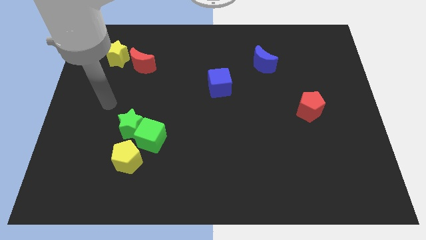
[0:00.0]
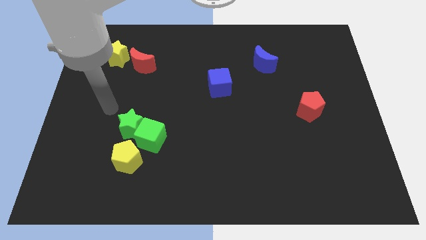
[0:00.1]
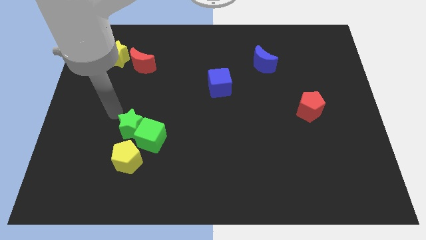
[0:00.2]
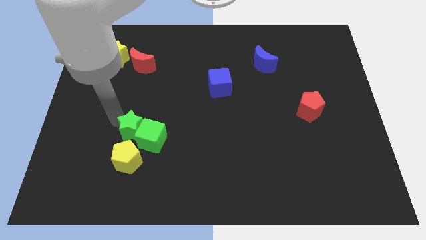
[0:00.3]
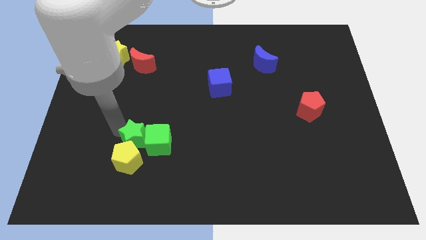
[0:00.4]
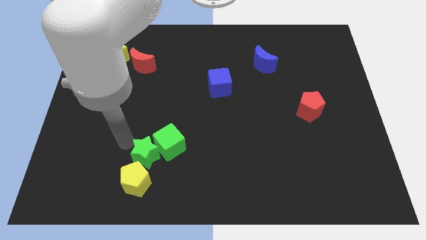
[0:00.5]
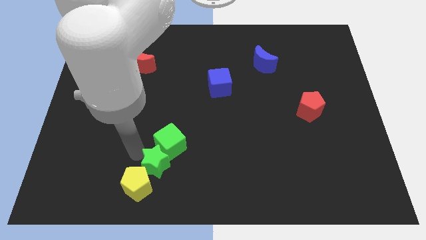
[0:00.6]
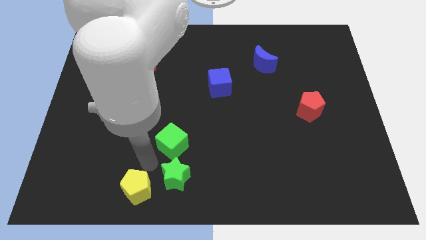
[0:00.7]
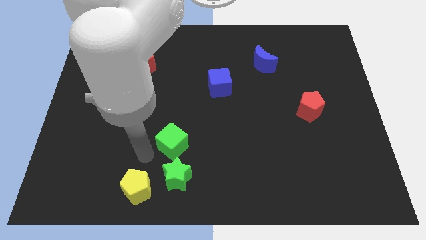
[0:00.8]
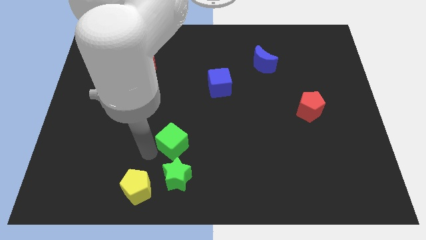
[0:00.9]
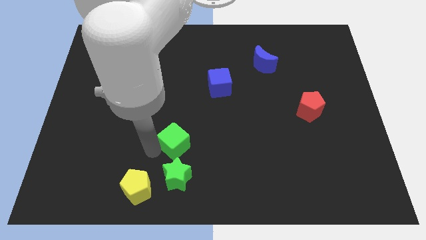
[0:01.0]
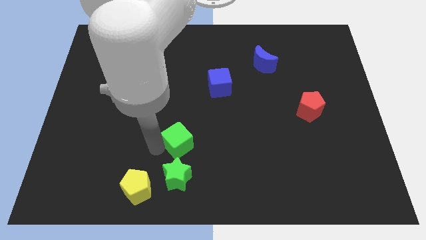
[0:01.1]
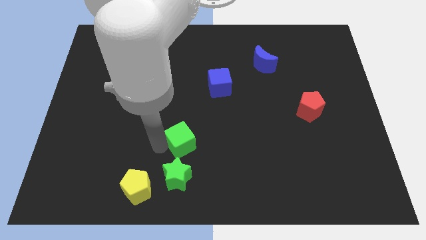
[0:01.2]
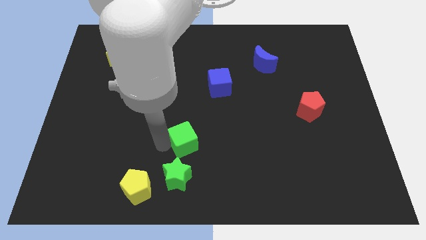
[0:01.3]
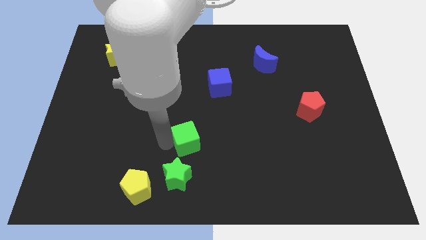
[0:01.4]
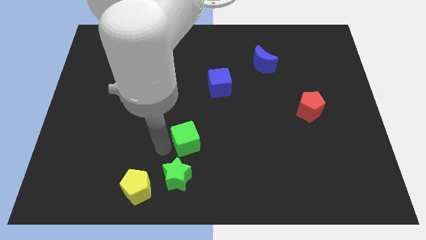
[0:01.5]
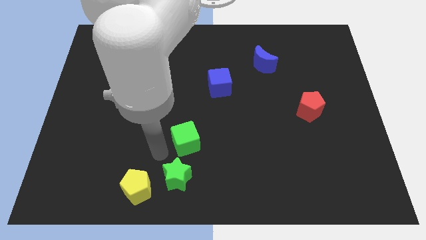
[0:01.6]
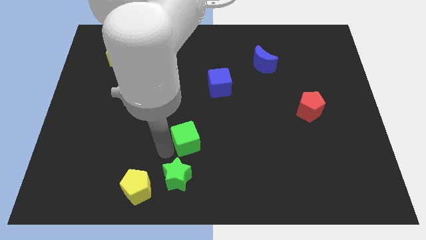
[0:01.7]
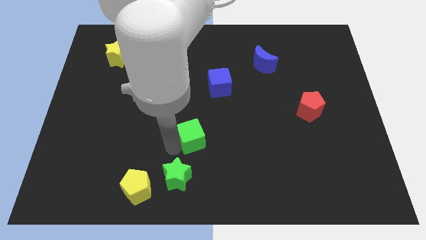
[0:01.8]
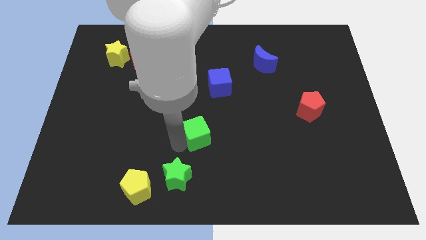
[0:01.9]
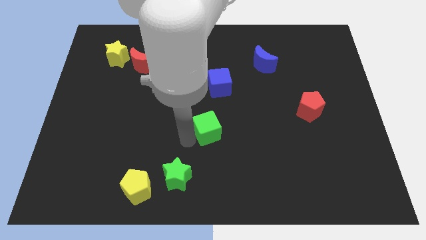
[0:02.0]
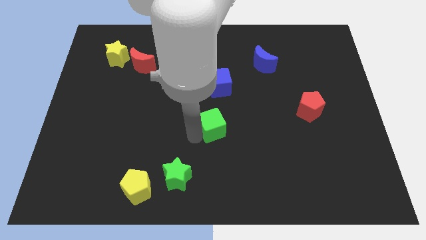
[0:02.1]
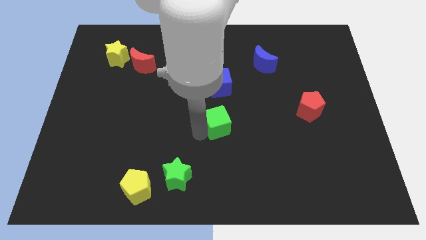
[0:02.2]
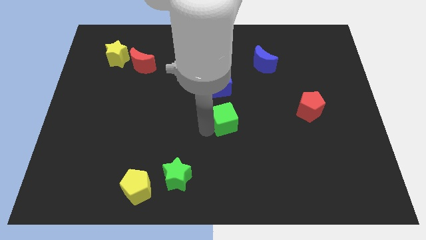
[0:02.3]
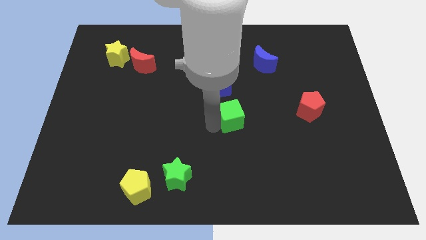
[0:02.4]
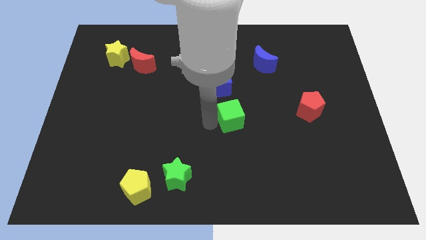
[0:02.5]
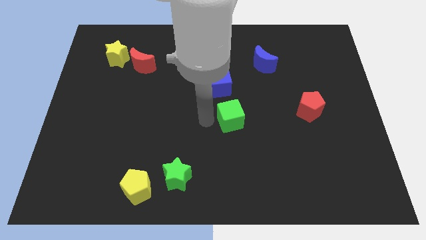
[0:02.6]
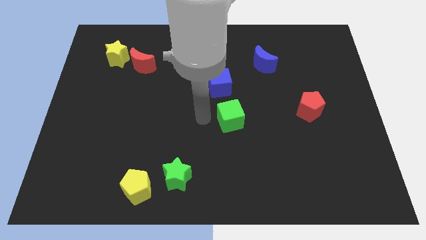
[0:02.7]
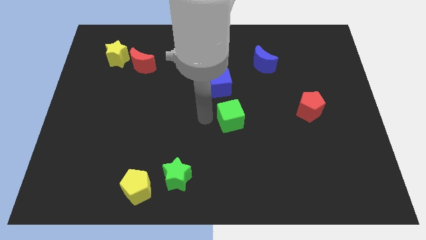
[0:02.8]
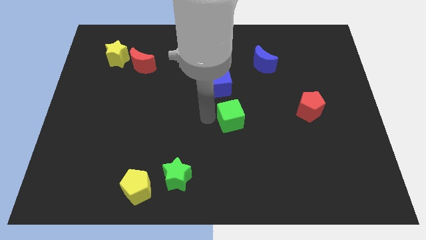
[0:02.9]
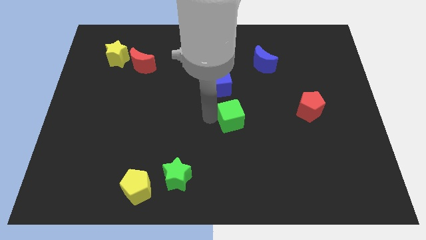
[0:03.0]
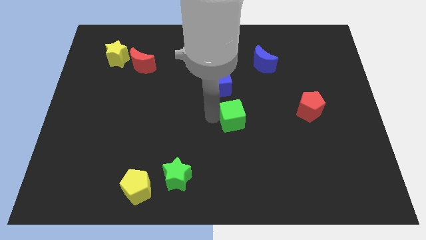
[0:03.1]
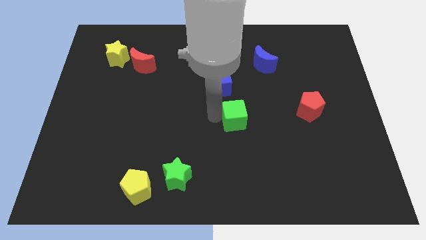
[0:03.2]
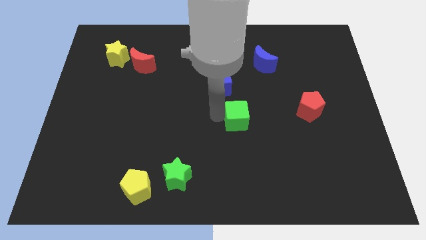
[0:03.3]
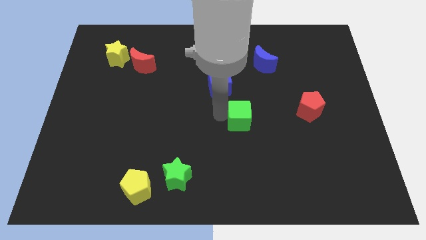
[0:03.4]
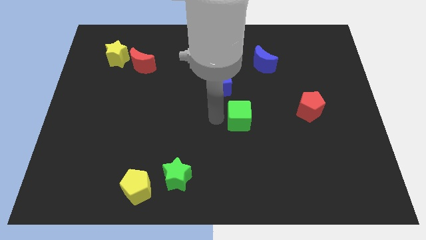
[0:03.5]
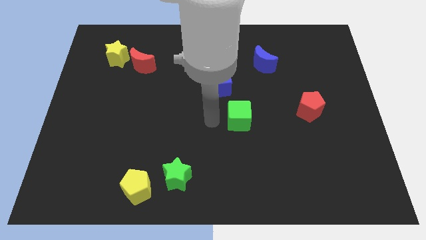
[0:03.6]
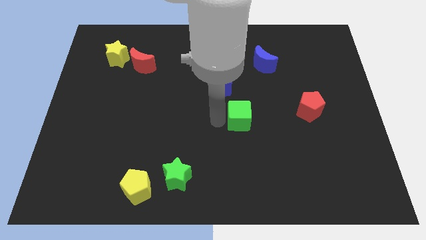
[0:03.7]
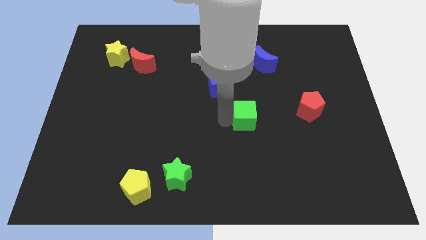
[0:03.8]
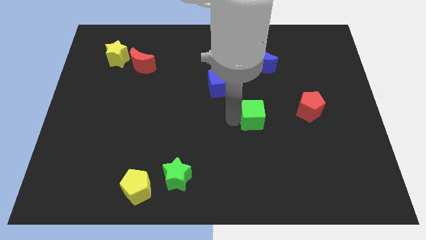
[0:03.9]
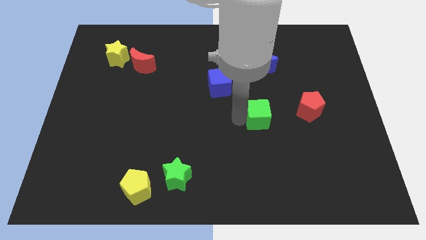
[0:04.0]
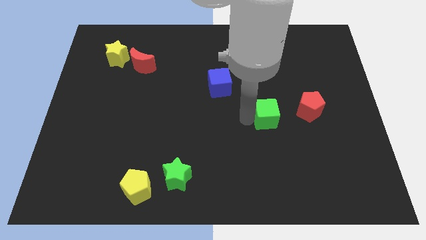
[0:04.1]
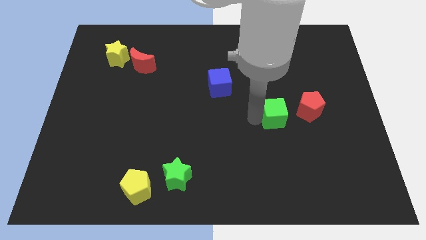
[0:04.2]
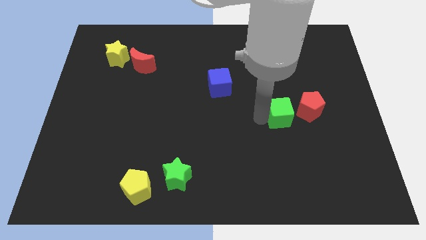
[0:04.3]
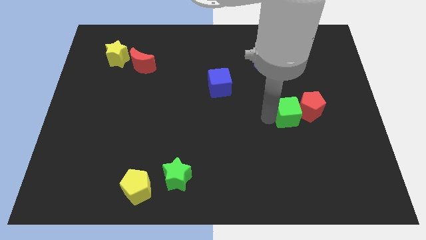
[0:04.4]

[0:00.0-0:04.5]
put the green cube close to the red pentagon

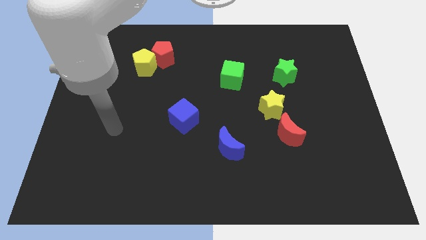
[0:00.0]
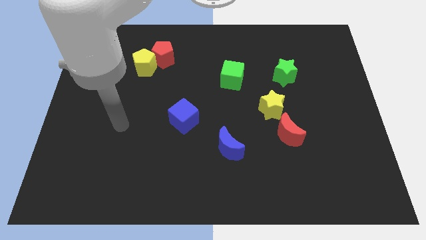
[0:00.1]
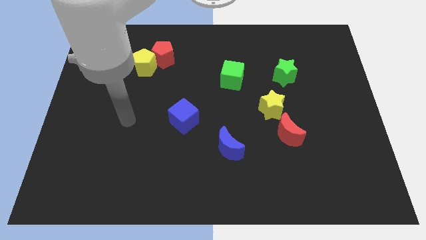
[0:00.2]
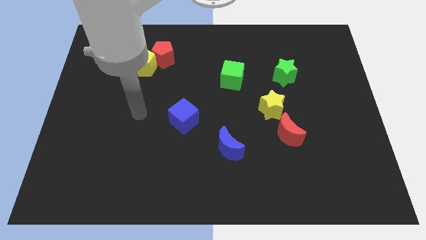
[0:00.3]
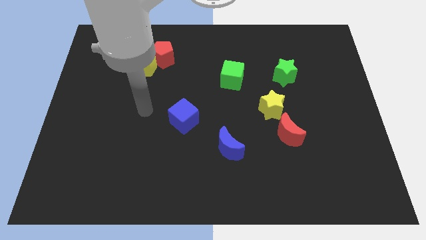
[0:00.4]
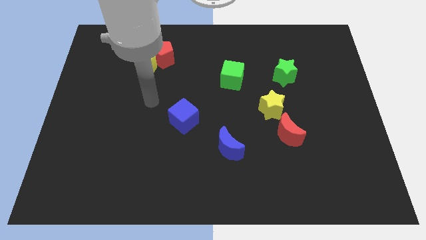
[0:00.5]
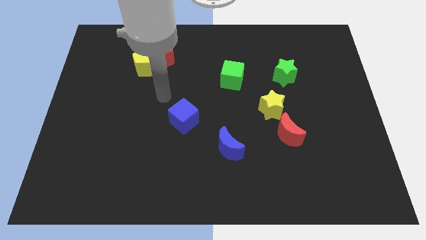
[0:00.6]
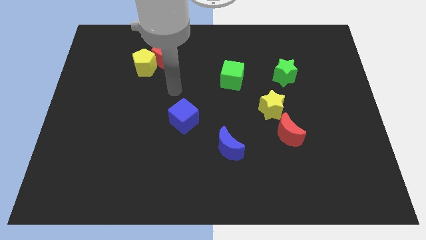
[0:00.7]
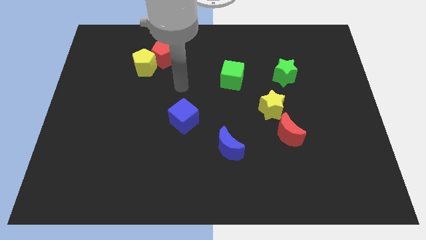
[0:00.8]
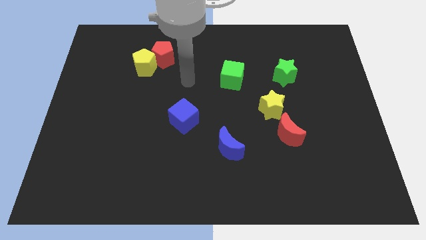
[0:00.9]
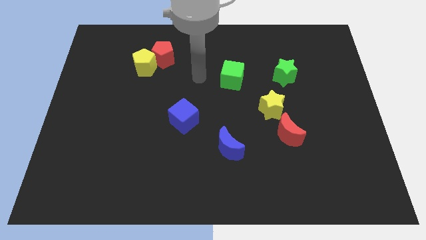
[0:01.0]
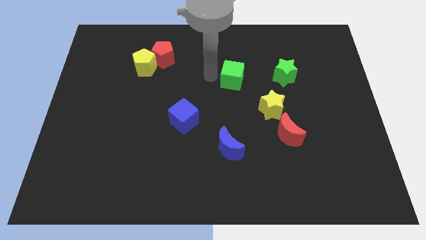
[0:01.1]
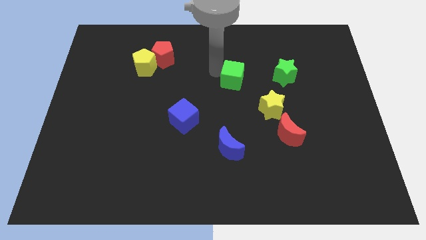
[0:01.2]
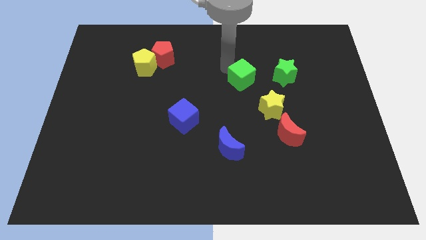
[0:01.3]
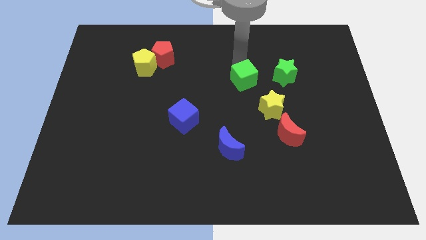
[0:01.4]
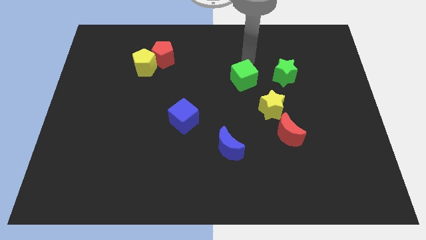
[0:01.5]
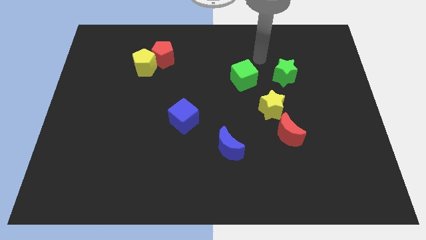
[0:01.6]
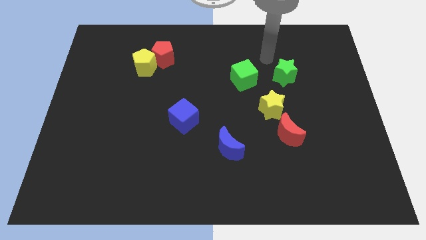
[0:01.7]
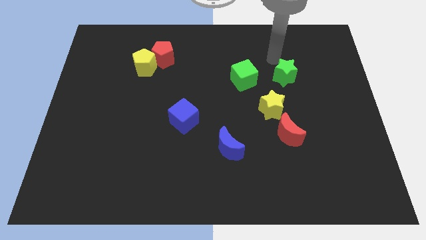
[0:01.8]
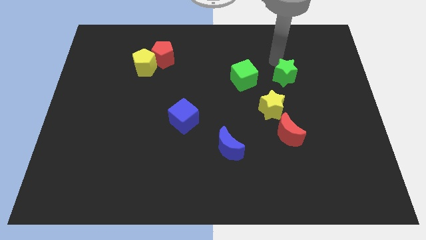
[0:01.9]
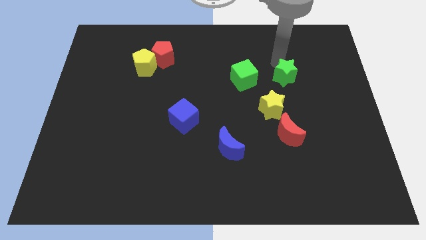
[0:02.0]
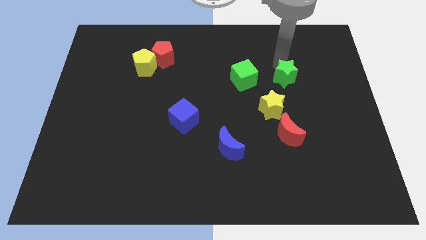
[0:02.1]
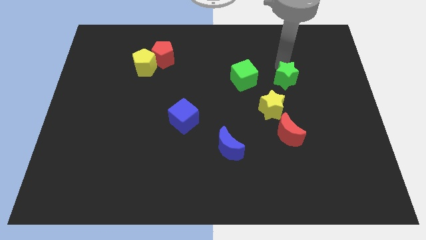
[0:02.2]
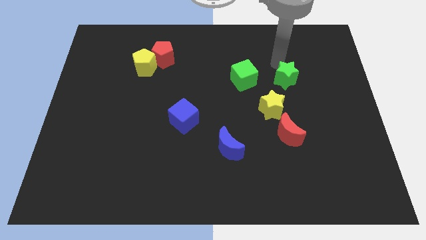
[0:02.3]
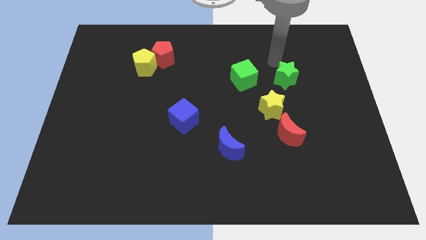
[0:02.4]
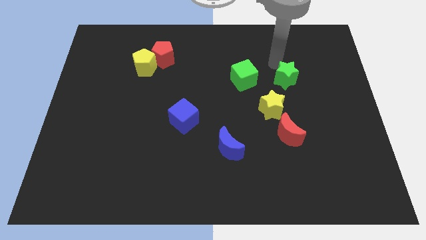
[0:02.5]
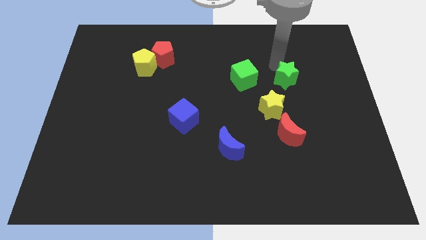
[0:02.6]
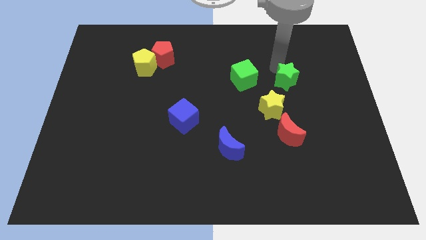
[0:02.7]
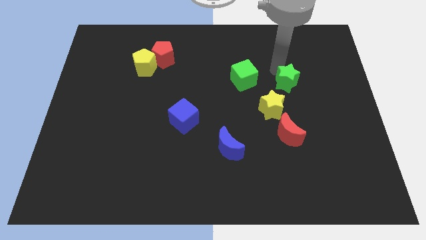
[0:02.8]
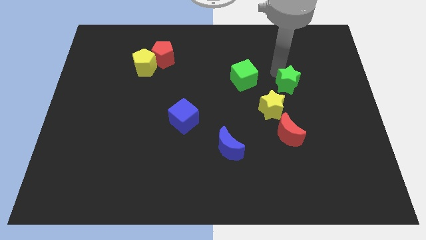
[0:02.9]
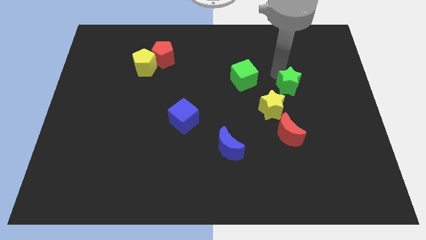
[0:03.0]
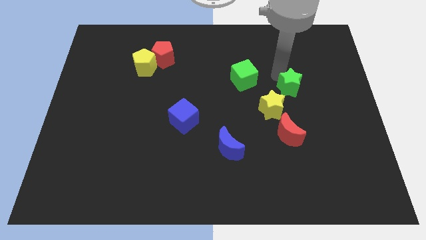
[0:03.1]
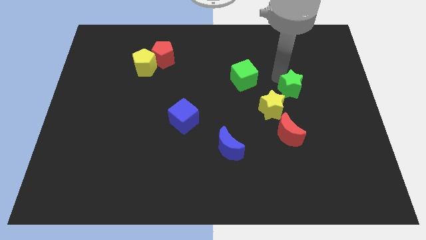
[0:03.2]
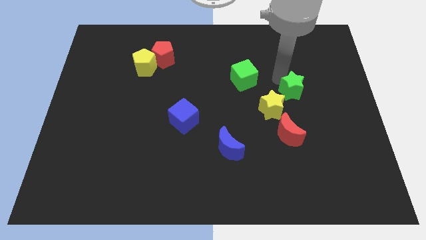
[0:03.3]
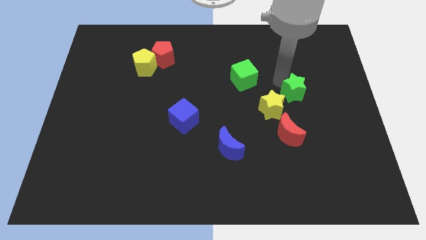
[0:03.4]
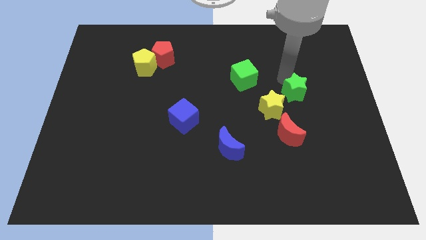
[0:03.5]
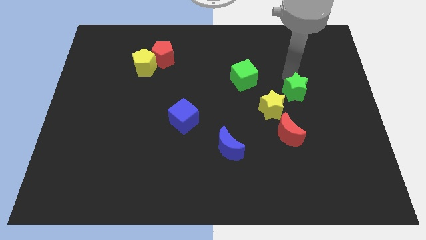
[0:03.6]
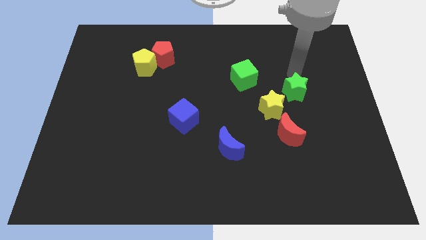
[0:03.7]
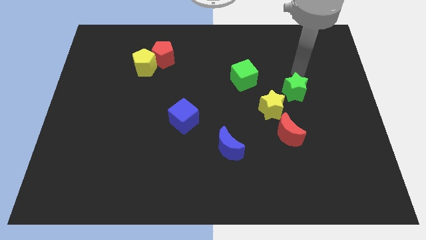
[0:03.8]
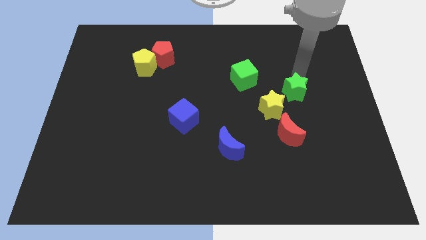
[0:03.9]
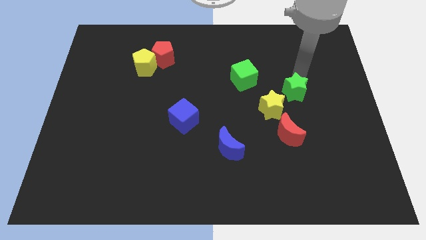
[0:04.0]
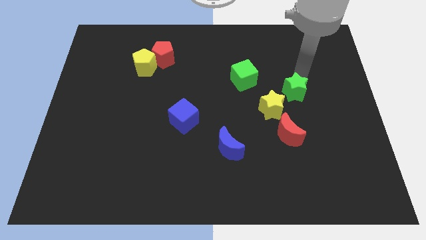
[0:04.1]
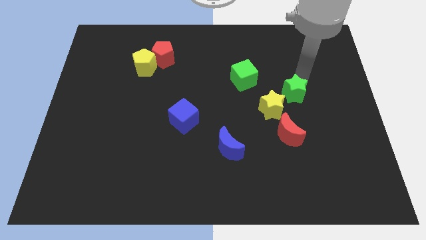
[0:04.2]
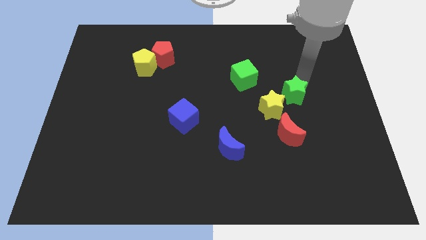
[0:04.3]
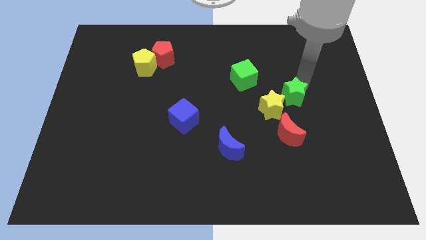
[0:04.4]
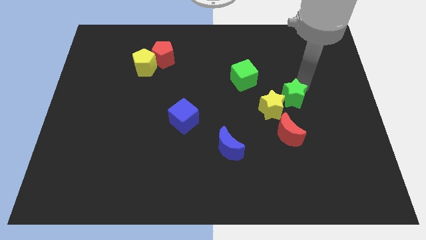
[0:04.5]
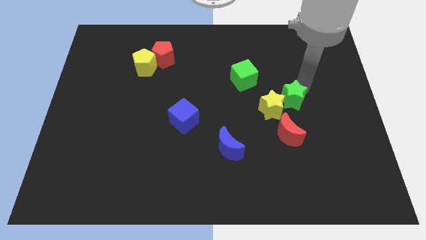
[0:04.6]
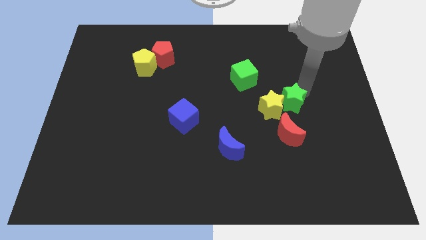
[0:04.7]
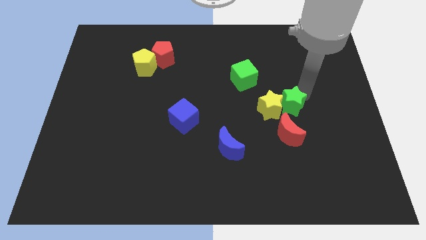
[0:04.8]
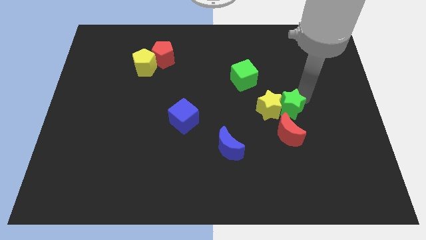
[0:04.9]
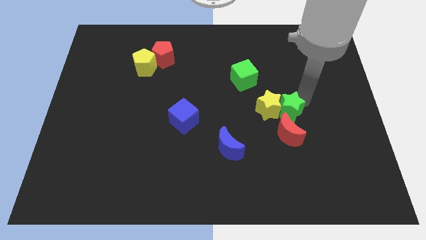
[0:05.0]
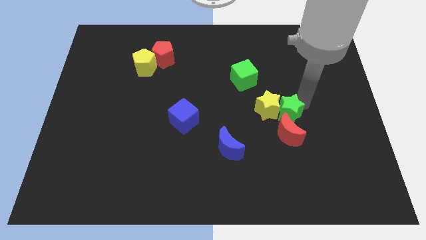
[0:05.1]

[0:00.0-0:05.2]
put the green star close to the red moon
